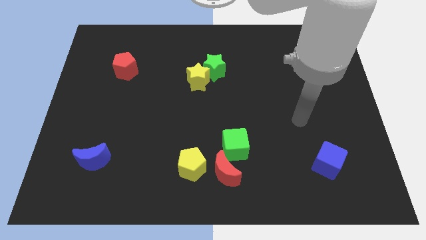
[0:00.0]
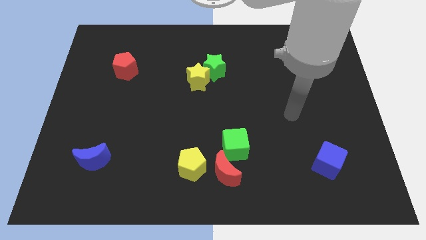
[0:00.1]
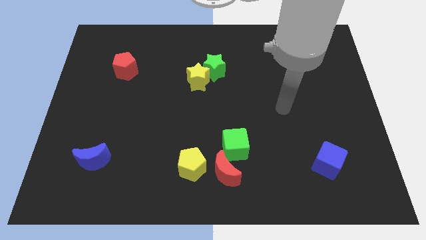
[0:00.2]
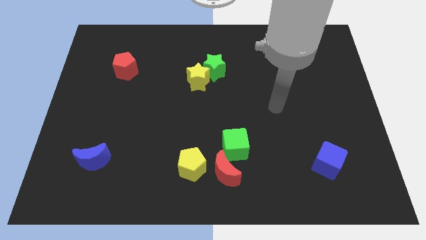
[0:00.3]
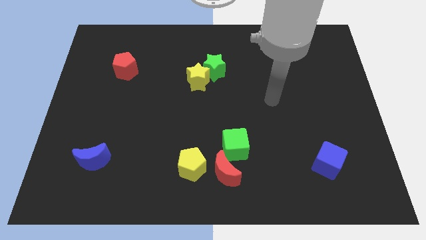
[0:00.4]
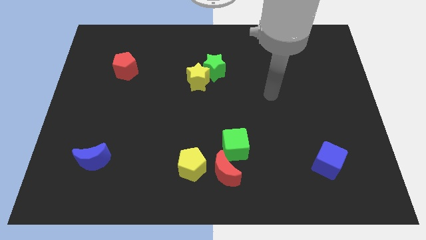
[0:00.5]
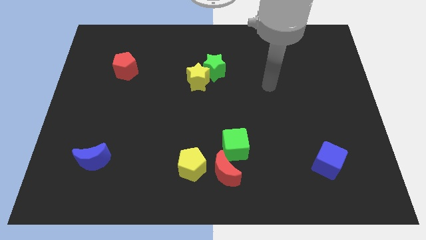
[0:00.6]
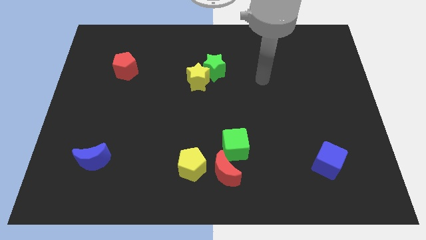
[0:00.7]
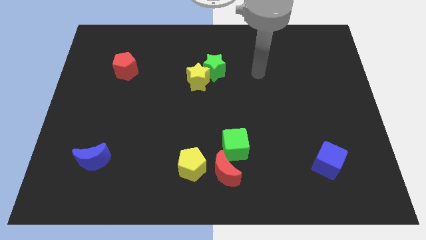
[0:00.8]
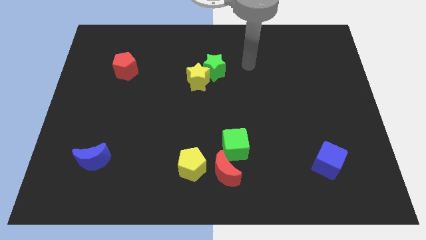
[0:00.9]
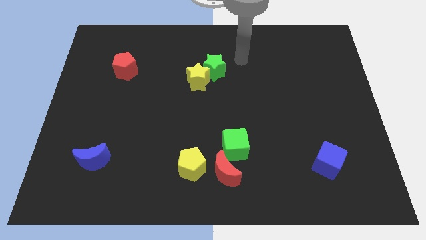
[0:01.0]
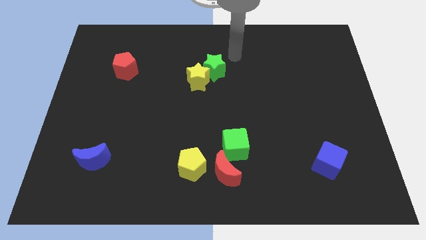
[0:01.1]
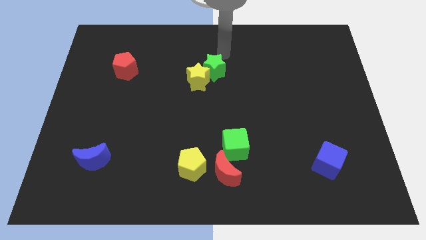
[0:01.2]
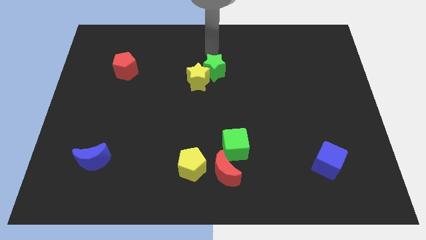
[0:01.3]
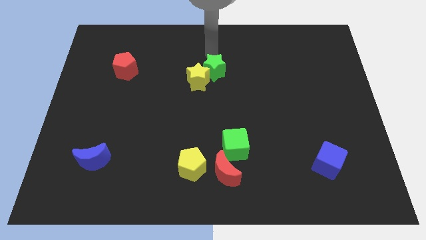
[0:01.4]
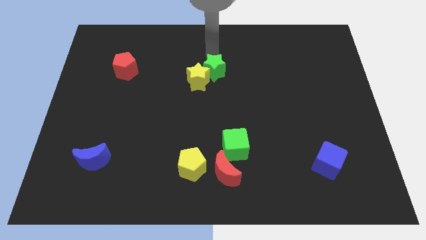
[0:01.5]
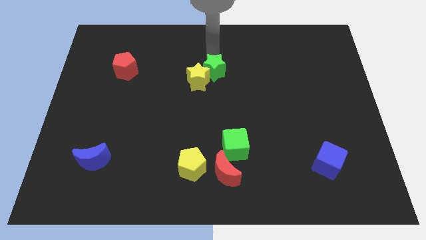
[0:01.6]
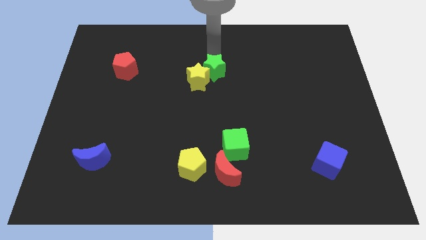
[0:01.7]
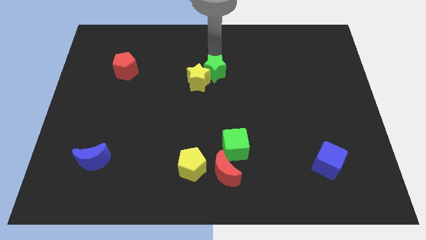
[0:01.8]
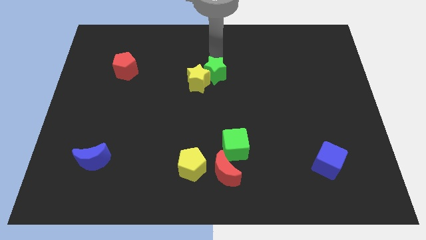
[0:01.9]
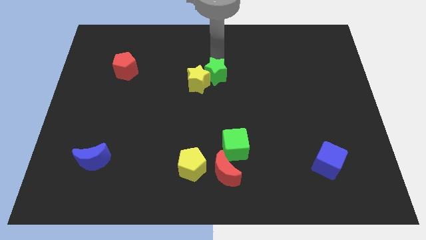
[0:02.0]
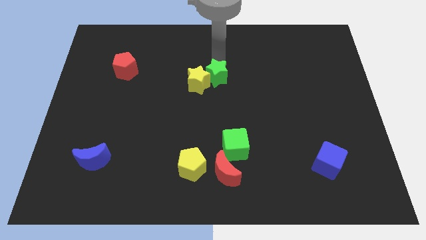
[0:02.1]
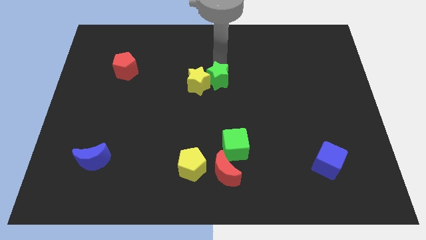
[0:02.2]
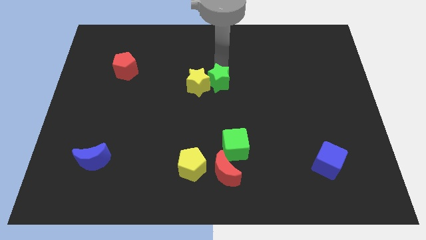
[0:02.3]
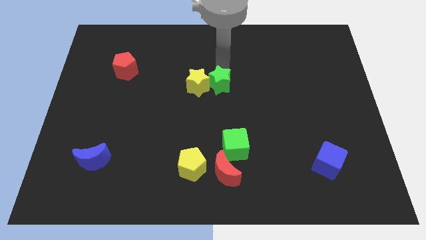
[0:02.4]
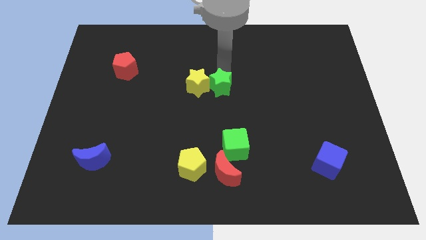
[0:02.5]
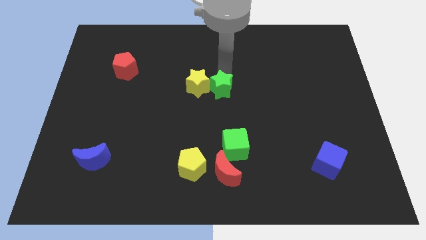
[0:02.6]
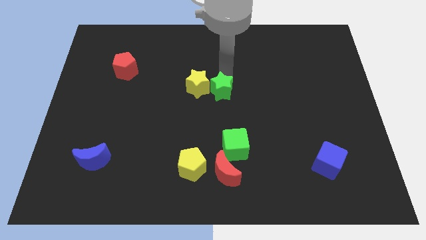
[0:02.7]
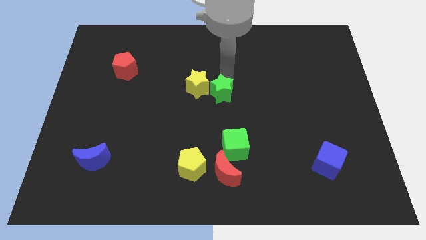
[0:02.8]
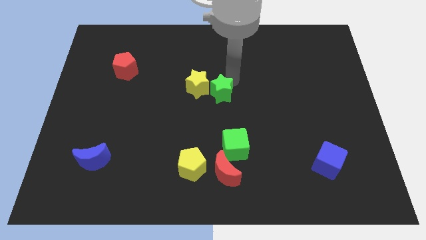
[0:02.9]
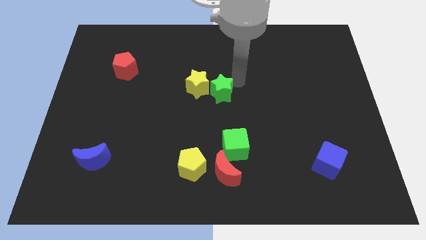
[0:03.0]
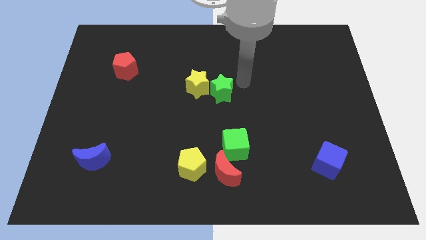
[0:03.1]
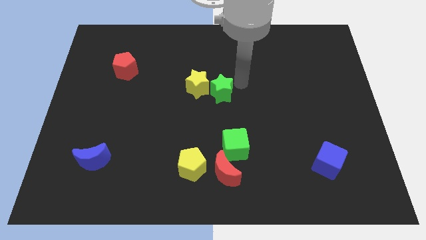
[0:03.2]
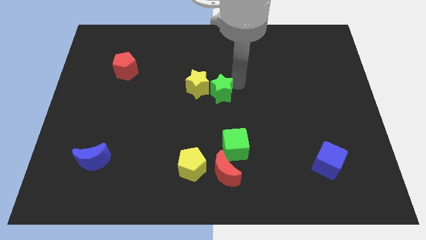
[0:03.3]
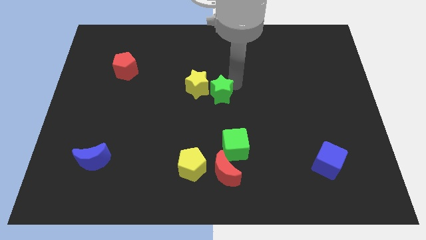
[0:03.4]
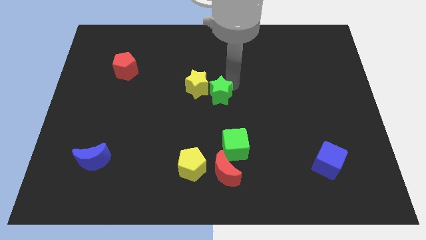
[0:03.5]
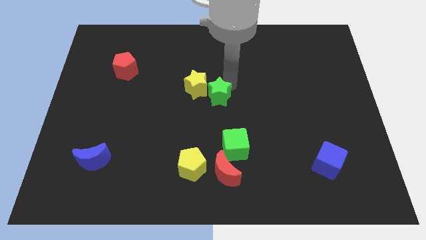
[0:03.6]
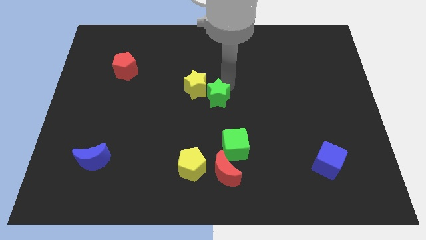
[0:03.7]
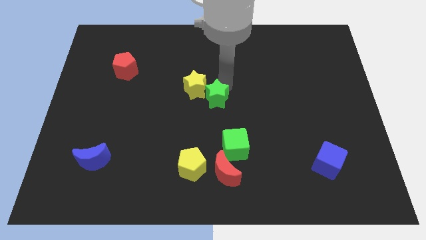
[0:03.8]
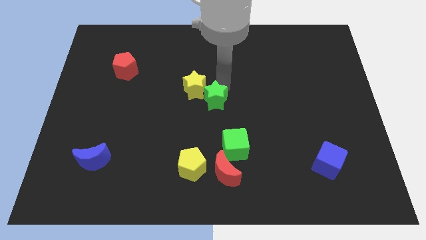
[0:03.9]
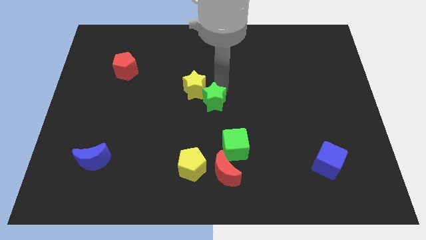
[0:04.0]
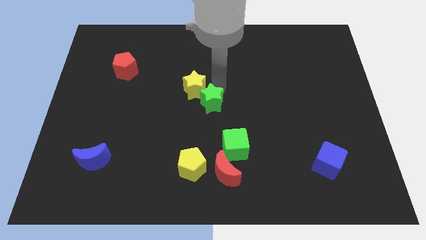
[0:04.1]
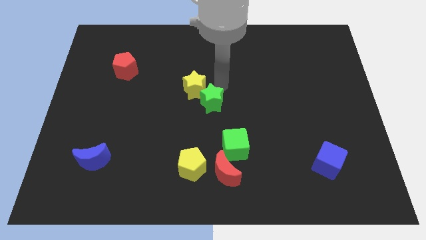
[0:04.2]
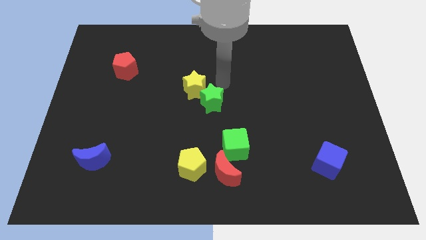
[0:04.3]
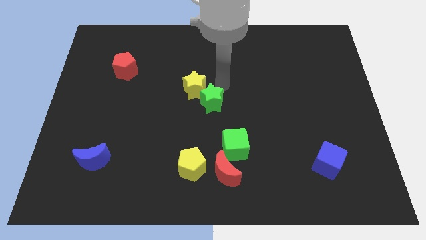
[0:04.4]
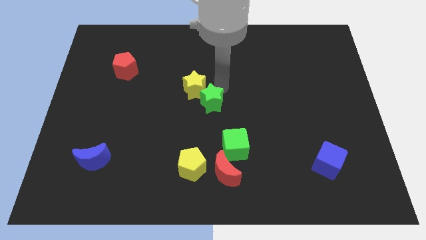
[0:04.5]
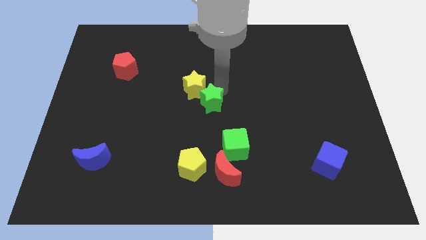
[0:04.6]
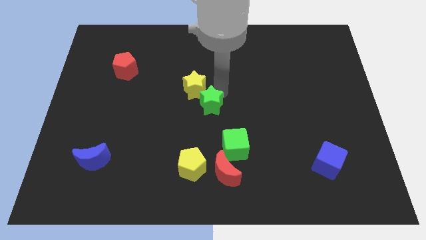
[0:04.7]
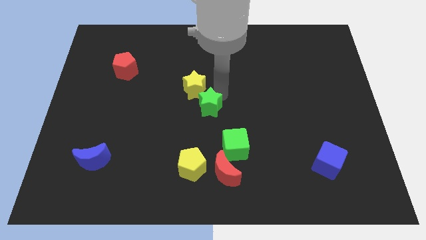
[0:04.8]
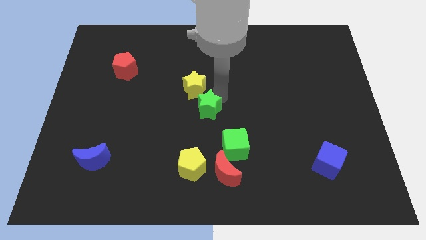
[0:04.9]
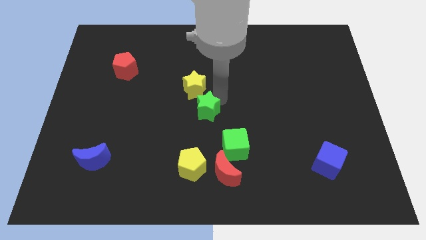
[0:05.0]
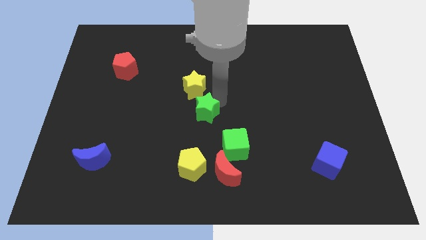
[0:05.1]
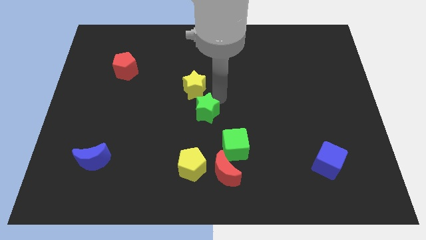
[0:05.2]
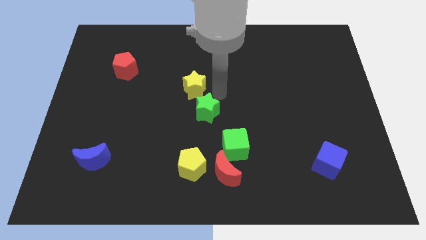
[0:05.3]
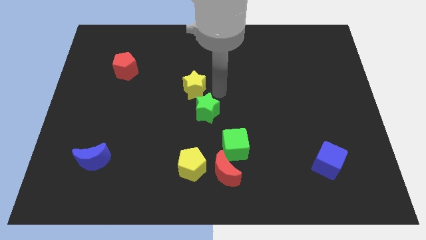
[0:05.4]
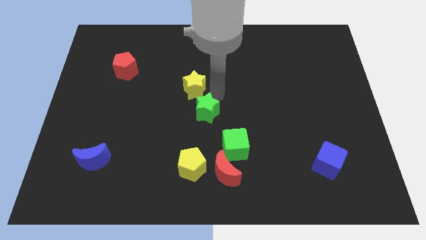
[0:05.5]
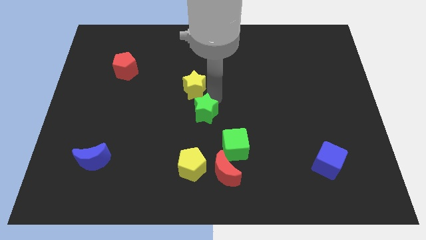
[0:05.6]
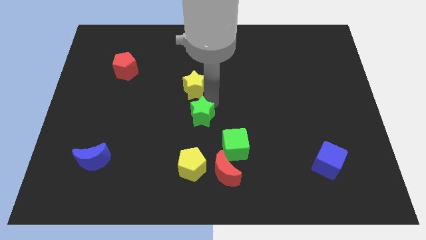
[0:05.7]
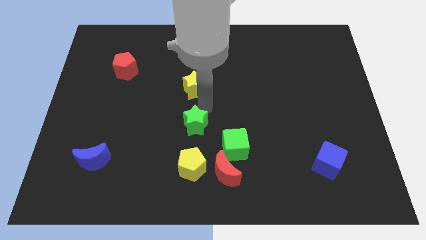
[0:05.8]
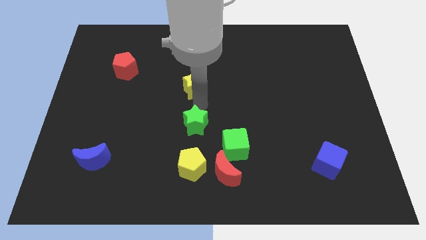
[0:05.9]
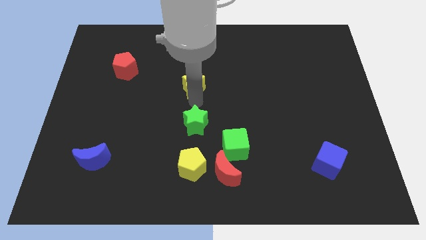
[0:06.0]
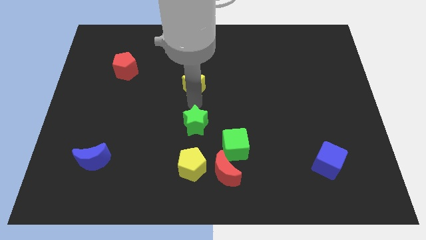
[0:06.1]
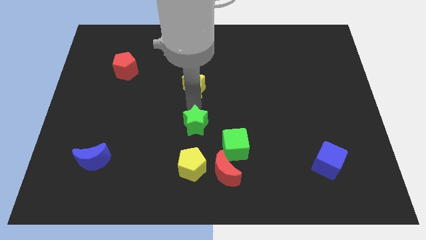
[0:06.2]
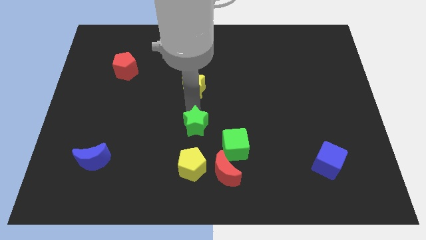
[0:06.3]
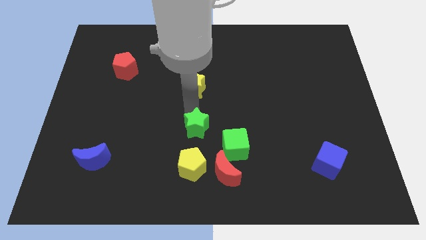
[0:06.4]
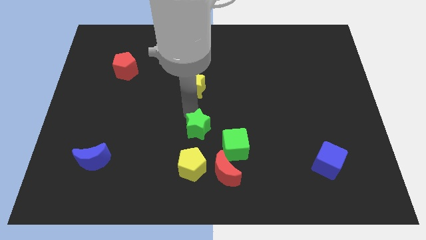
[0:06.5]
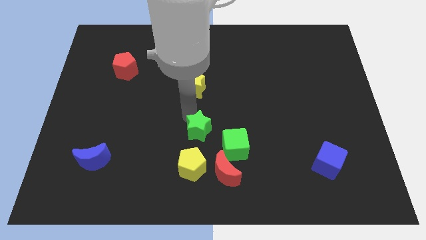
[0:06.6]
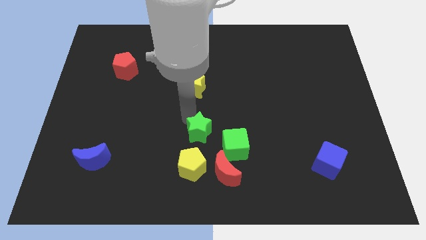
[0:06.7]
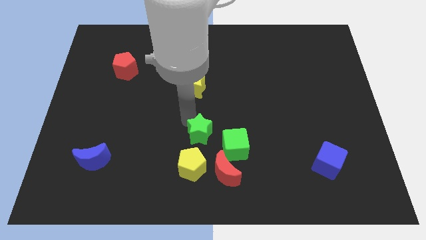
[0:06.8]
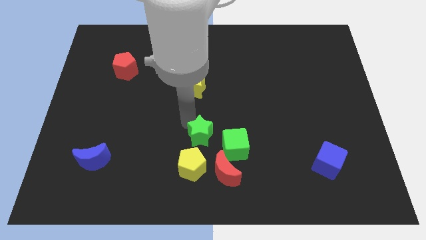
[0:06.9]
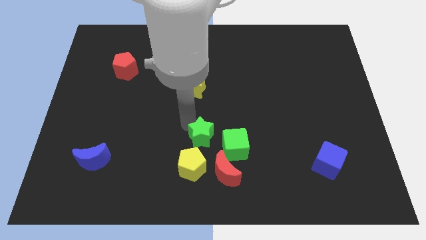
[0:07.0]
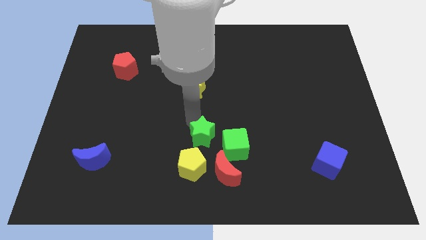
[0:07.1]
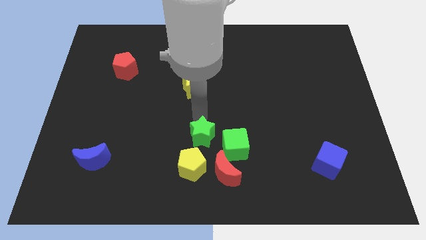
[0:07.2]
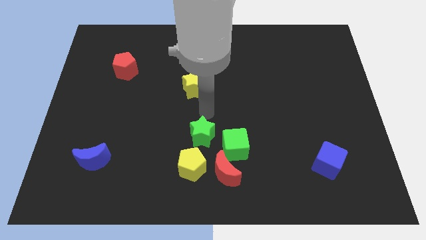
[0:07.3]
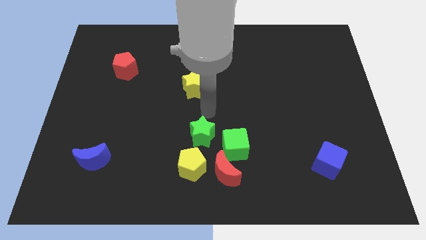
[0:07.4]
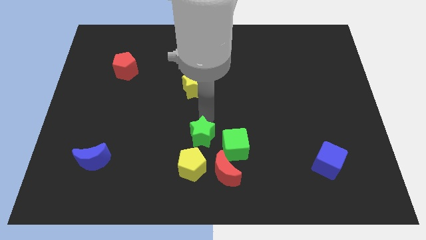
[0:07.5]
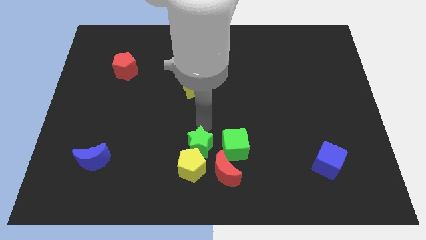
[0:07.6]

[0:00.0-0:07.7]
move the green star close to the yellow pentagon

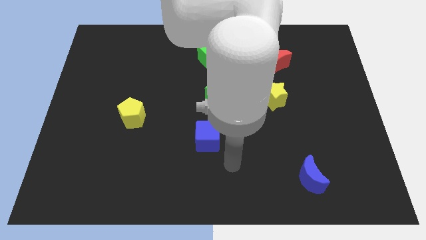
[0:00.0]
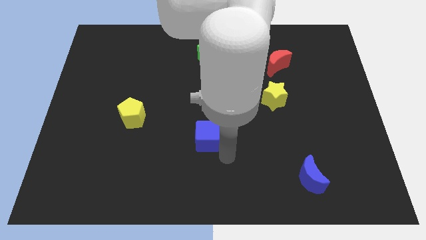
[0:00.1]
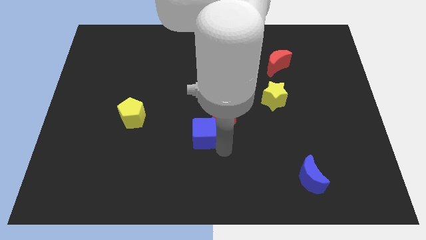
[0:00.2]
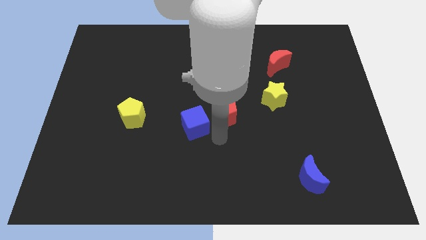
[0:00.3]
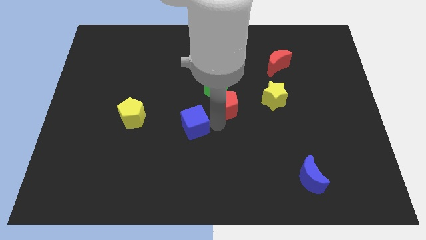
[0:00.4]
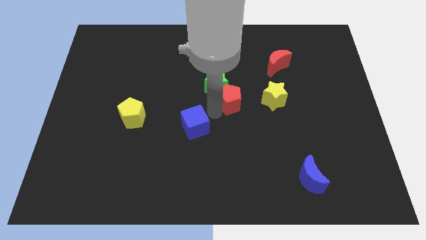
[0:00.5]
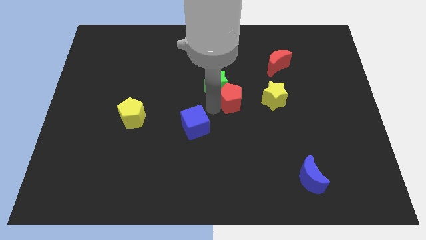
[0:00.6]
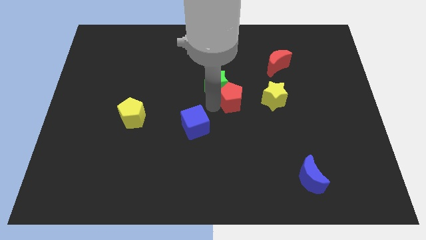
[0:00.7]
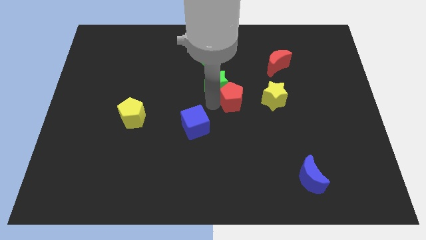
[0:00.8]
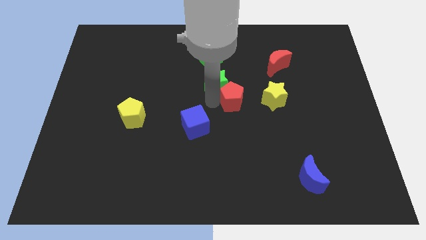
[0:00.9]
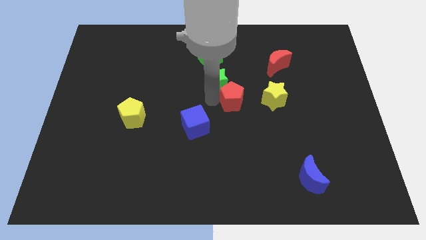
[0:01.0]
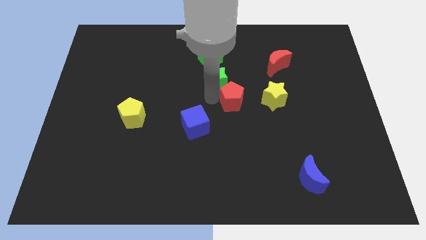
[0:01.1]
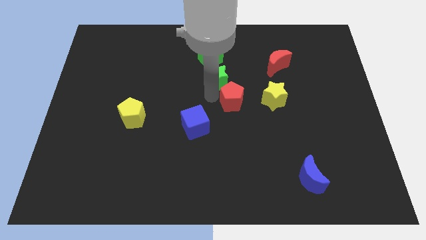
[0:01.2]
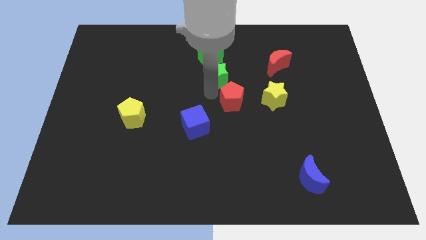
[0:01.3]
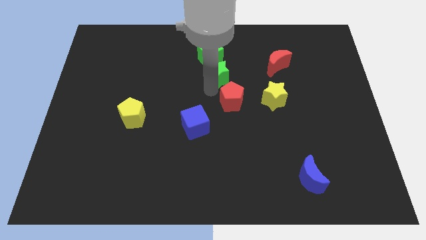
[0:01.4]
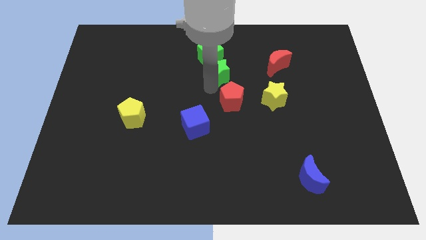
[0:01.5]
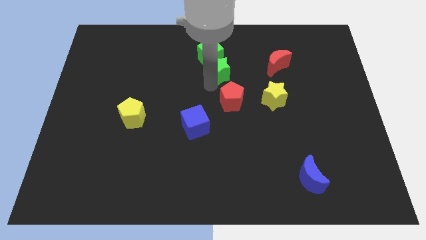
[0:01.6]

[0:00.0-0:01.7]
move the green star towards the green cube
